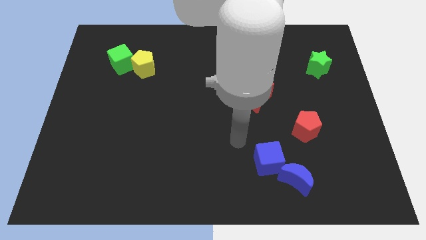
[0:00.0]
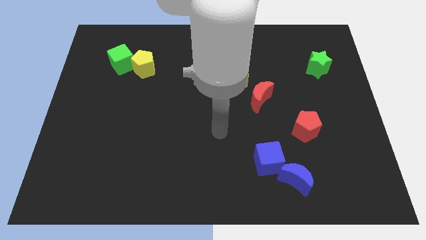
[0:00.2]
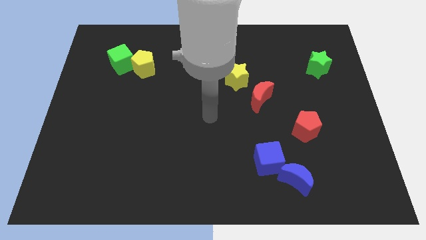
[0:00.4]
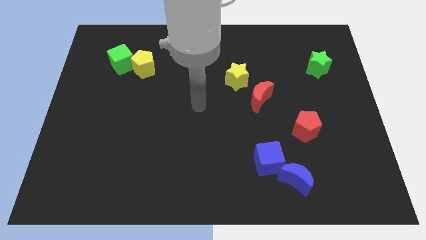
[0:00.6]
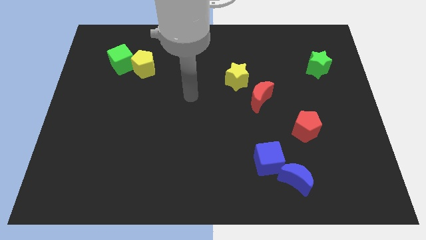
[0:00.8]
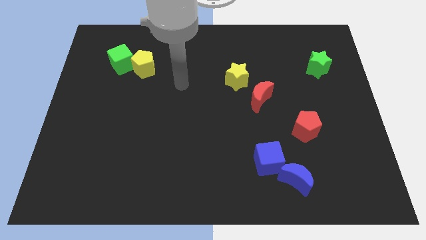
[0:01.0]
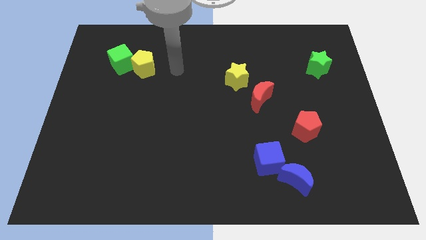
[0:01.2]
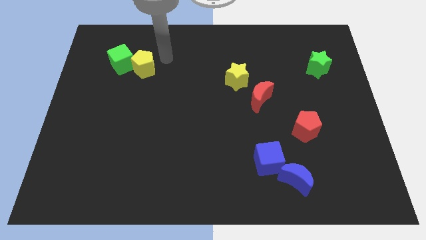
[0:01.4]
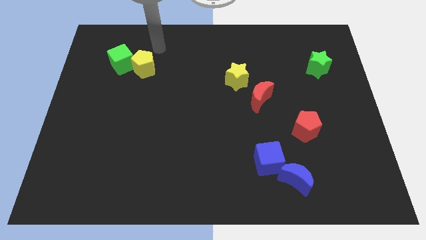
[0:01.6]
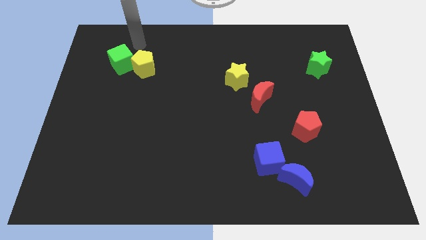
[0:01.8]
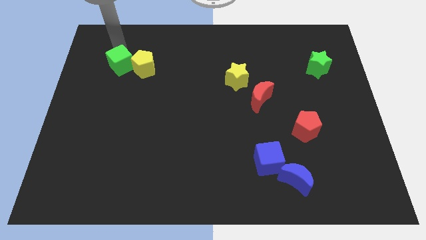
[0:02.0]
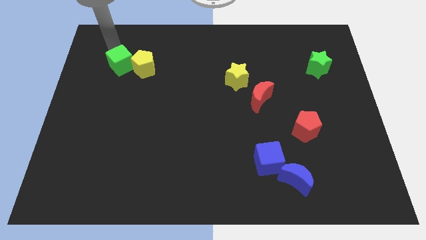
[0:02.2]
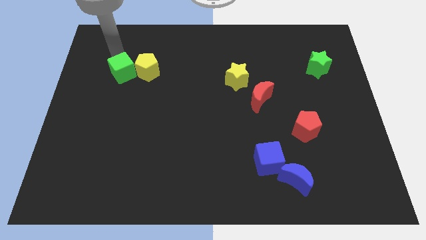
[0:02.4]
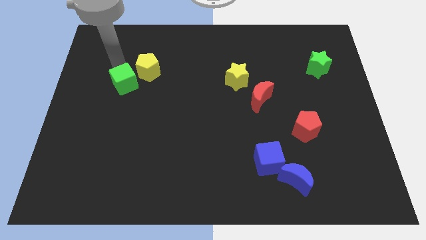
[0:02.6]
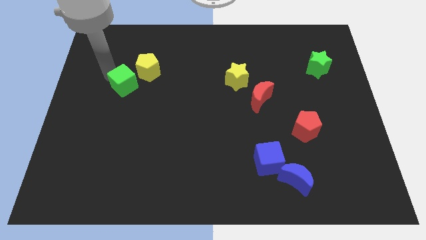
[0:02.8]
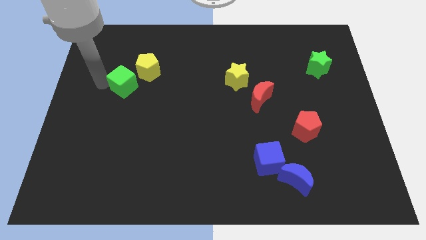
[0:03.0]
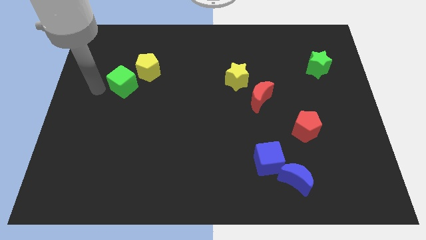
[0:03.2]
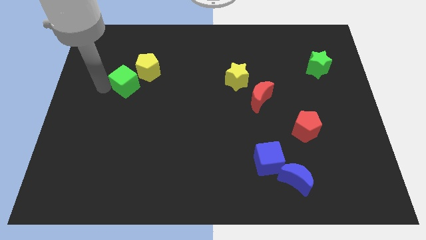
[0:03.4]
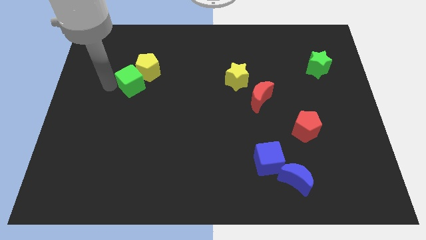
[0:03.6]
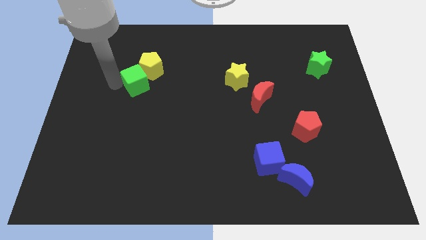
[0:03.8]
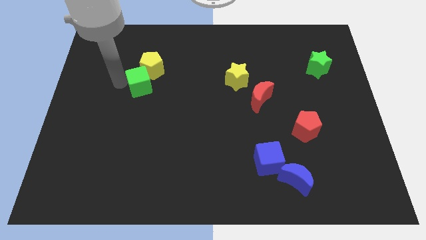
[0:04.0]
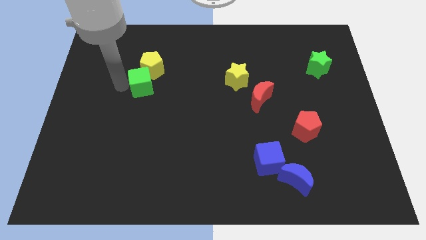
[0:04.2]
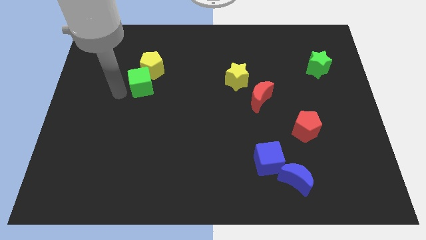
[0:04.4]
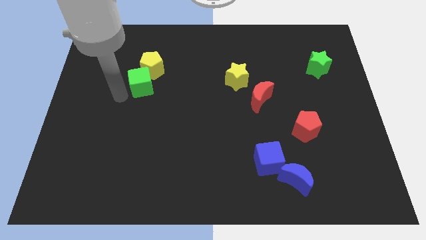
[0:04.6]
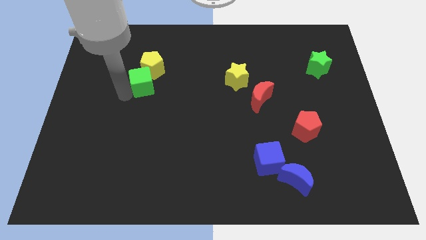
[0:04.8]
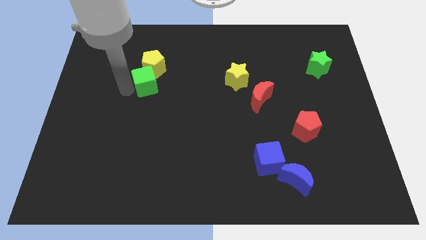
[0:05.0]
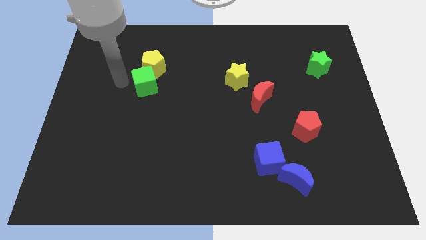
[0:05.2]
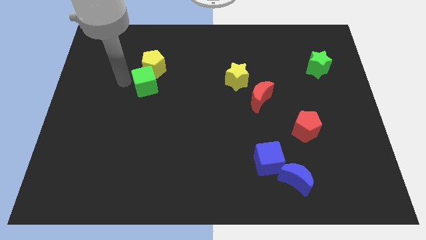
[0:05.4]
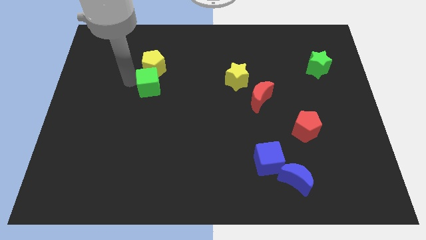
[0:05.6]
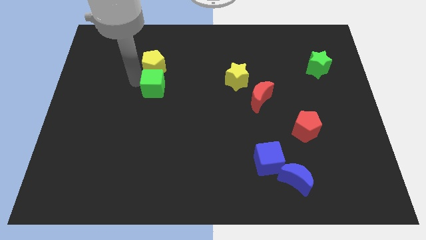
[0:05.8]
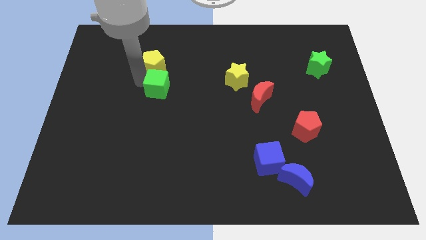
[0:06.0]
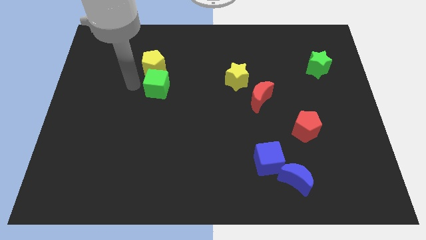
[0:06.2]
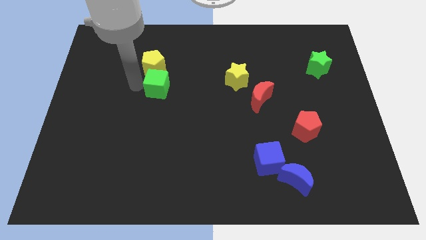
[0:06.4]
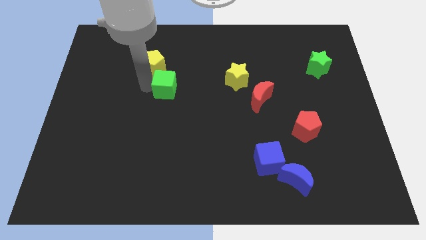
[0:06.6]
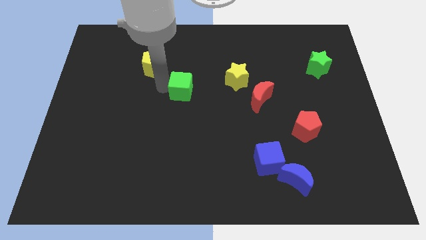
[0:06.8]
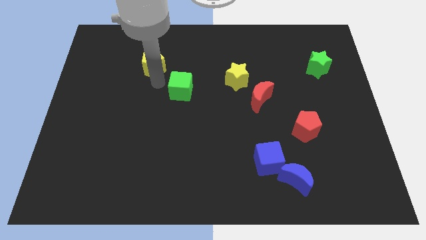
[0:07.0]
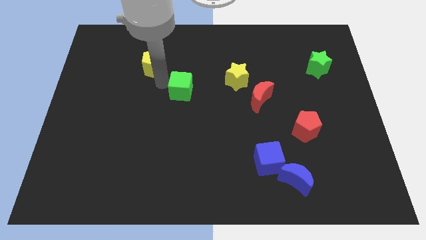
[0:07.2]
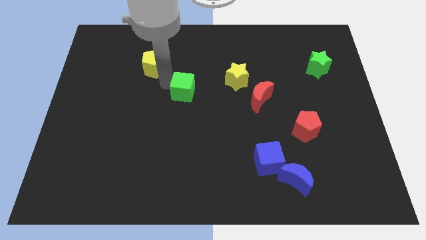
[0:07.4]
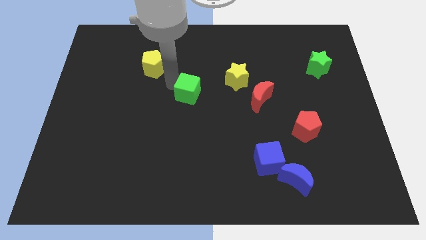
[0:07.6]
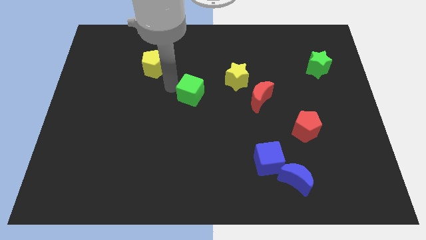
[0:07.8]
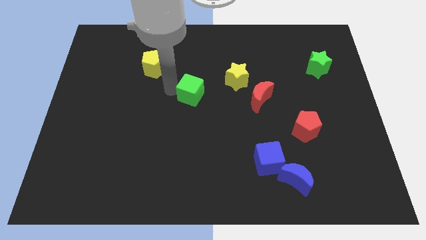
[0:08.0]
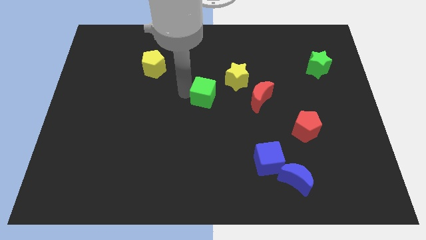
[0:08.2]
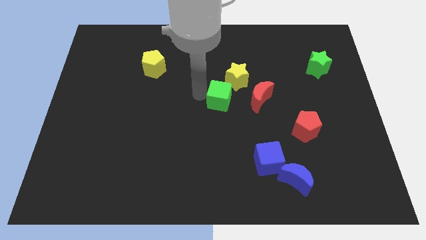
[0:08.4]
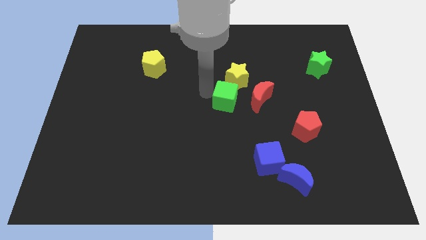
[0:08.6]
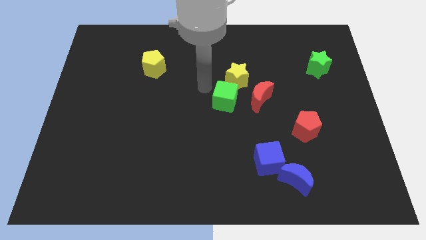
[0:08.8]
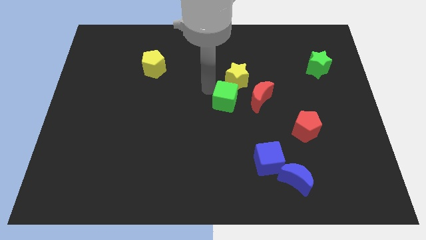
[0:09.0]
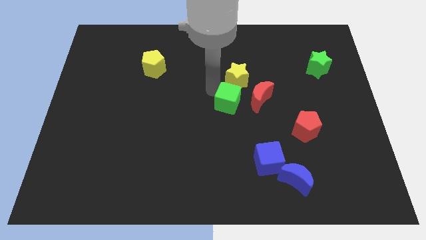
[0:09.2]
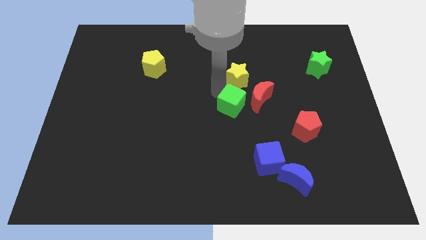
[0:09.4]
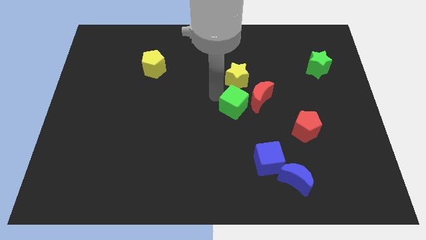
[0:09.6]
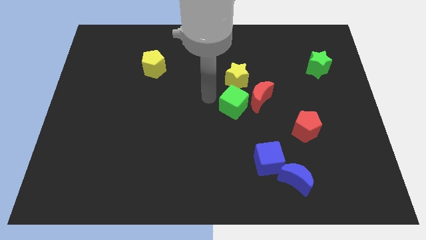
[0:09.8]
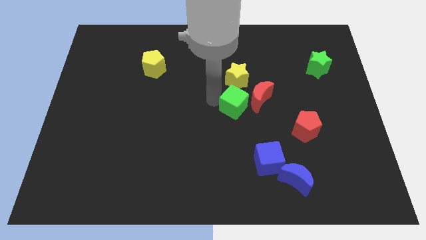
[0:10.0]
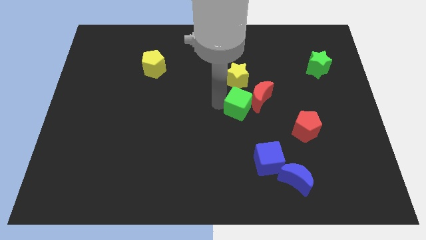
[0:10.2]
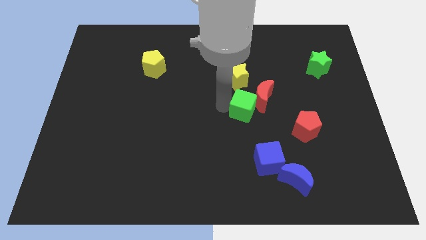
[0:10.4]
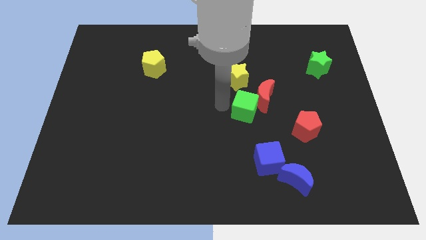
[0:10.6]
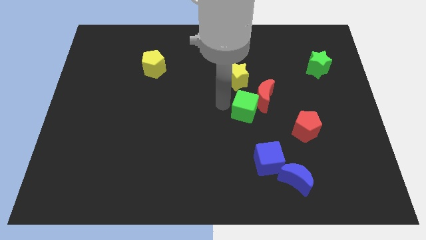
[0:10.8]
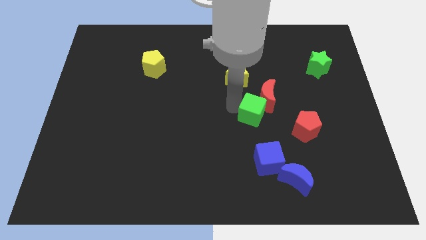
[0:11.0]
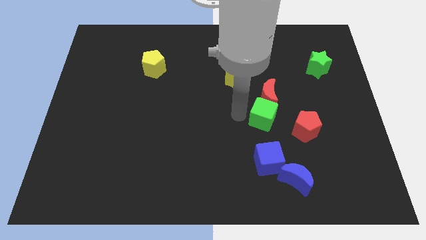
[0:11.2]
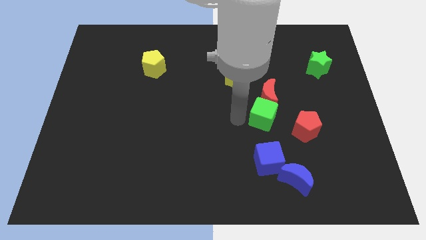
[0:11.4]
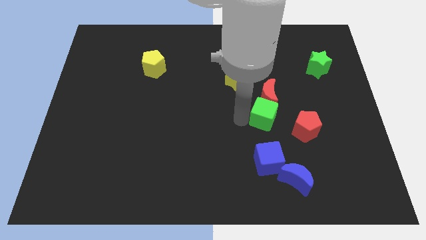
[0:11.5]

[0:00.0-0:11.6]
put the green cube to the bottom right side of the red moon

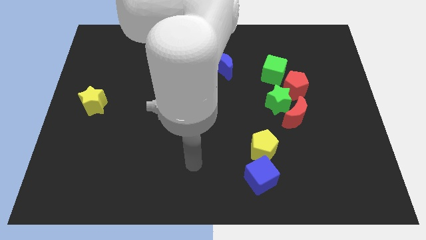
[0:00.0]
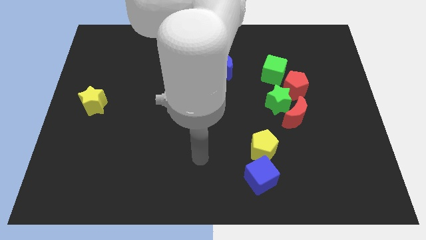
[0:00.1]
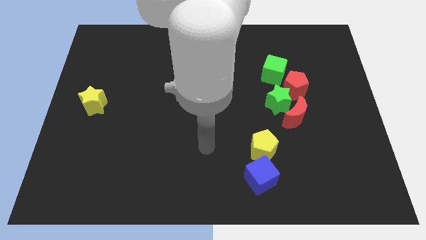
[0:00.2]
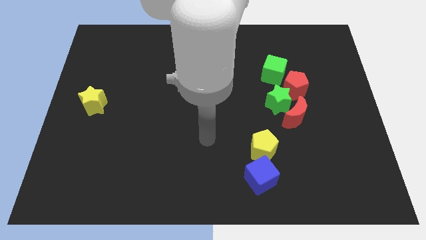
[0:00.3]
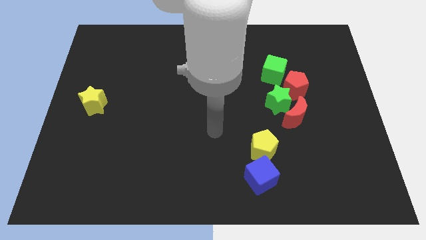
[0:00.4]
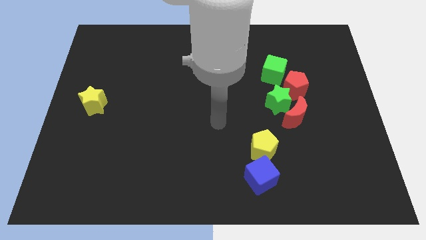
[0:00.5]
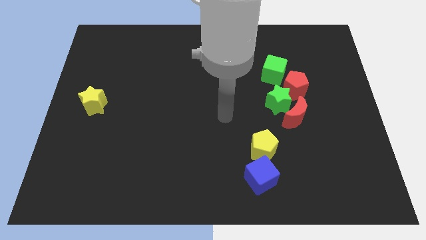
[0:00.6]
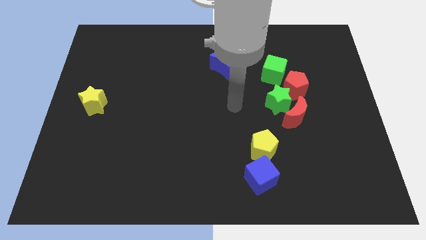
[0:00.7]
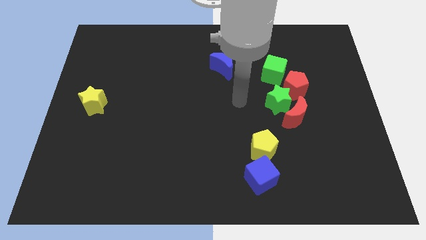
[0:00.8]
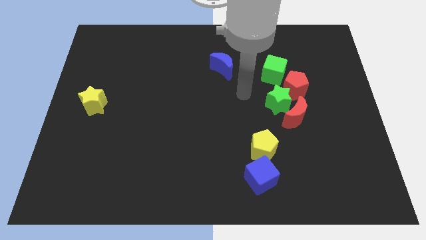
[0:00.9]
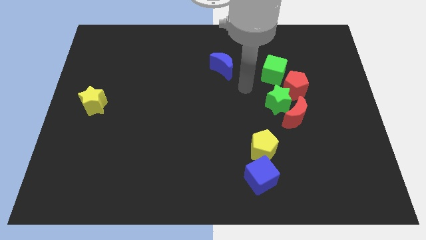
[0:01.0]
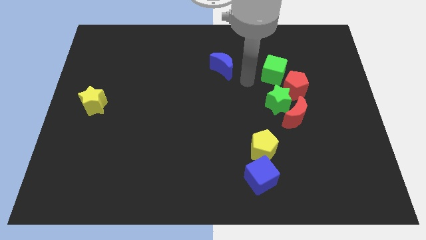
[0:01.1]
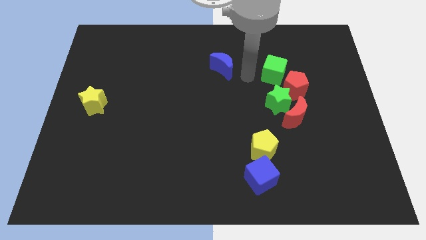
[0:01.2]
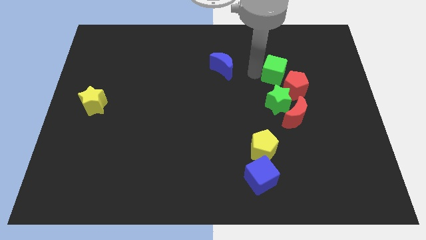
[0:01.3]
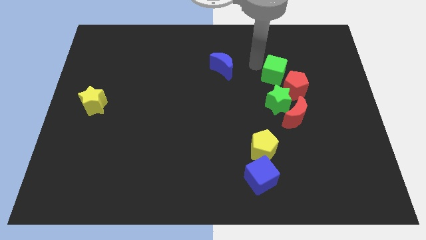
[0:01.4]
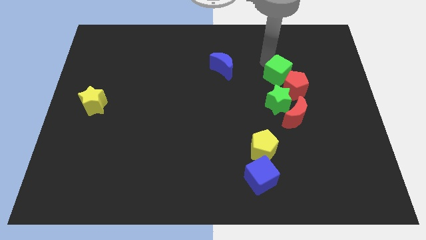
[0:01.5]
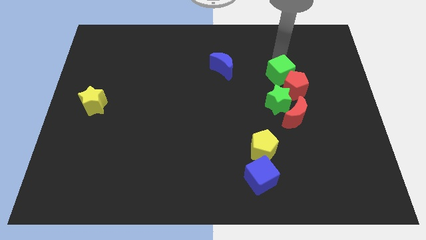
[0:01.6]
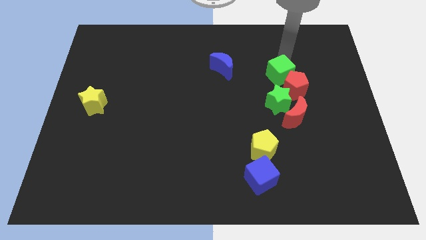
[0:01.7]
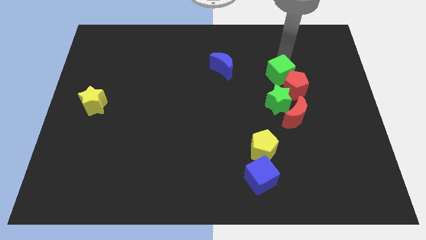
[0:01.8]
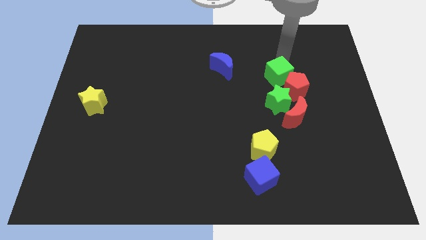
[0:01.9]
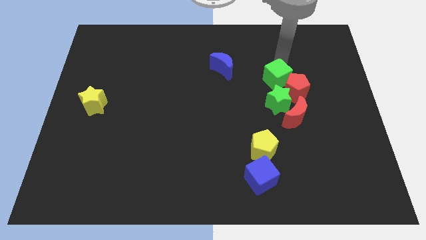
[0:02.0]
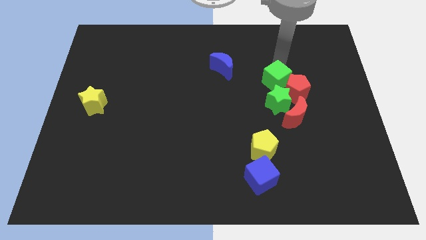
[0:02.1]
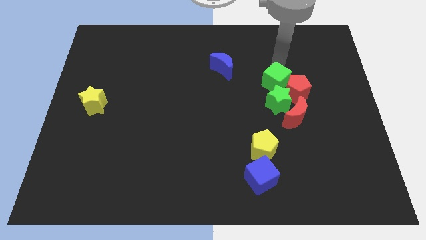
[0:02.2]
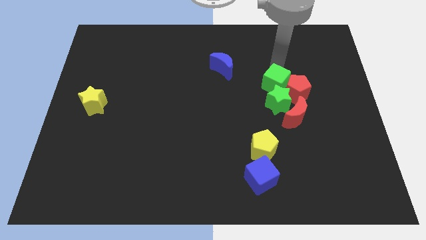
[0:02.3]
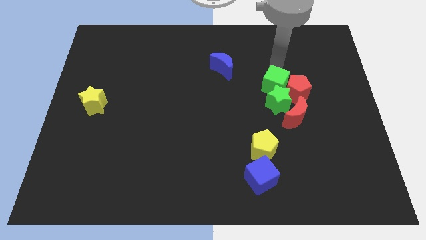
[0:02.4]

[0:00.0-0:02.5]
put the green cube to the top left side of the red moon
